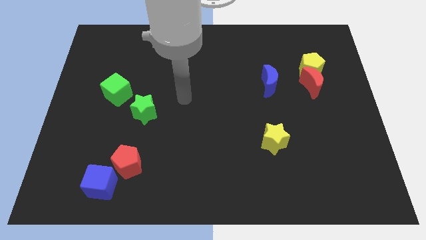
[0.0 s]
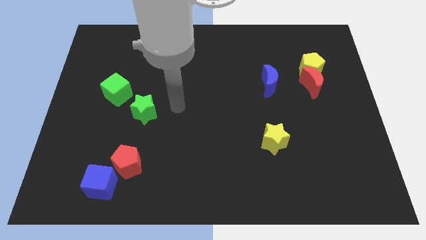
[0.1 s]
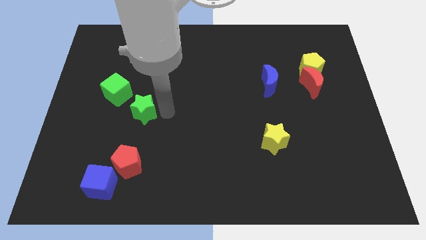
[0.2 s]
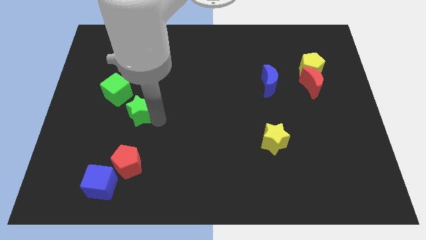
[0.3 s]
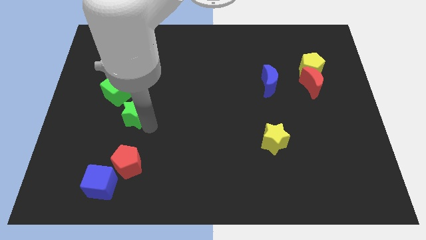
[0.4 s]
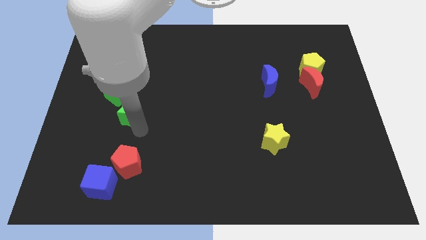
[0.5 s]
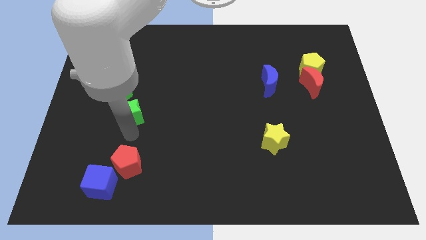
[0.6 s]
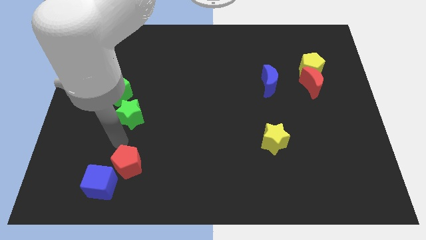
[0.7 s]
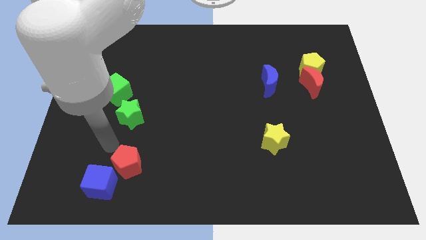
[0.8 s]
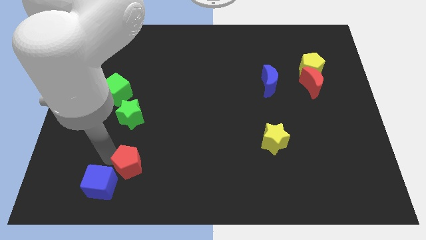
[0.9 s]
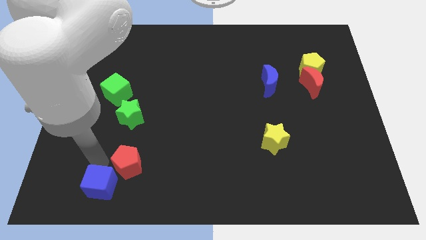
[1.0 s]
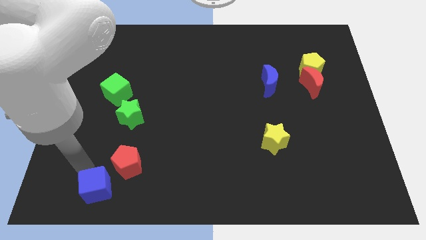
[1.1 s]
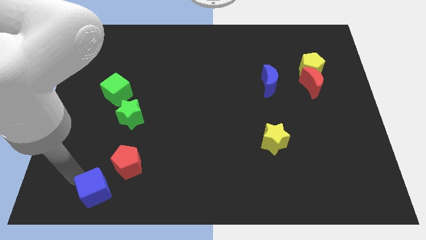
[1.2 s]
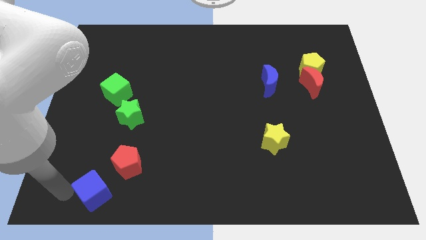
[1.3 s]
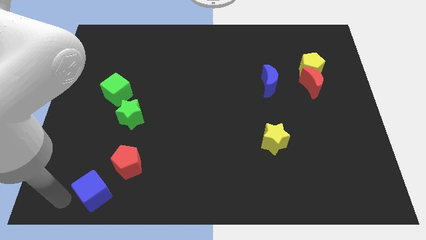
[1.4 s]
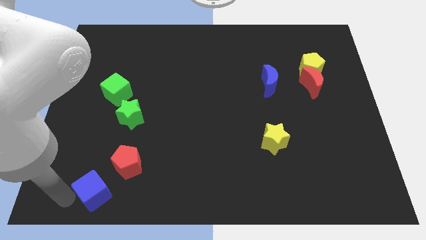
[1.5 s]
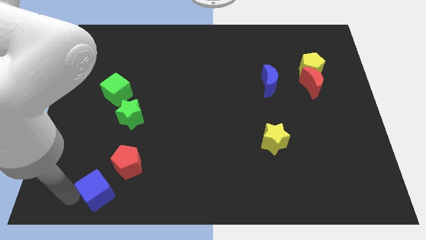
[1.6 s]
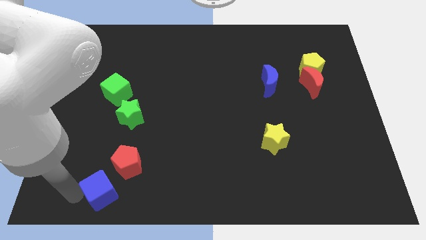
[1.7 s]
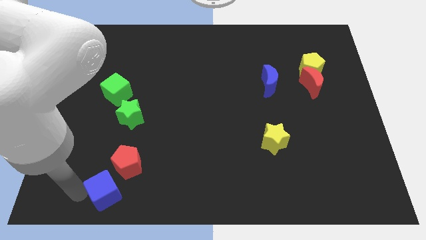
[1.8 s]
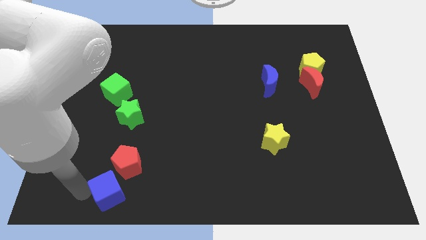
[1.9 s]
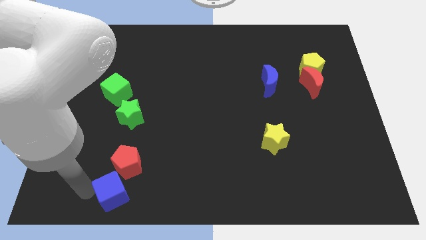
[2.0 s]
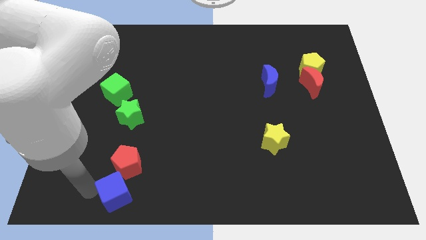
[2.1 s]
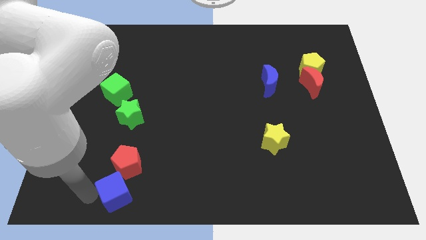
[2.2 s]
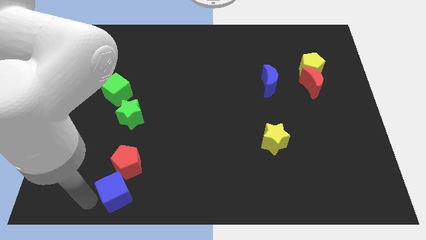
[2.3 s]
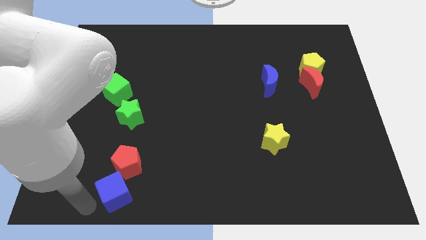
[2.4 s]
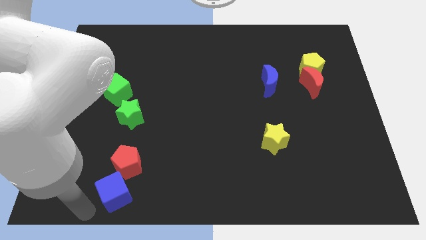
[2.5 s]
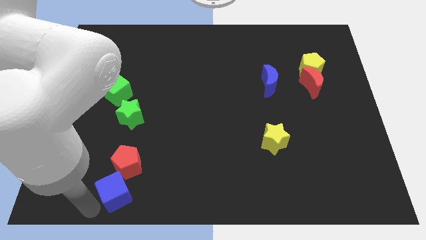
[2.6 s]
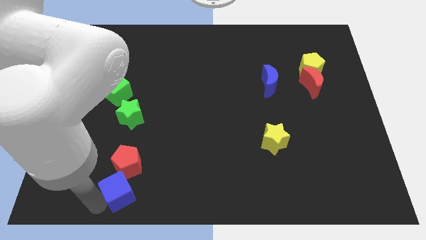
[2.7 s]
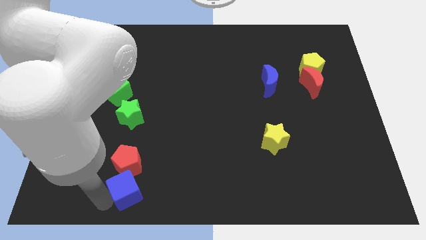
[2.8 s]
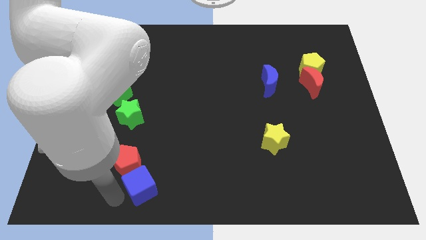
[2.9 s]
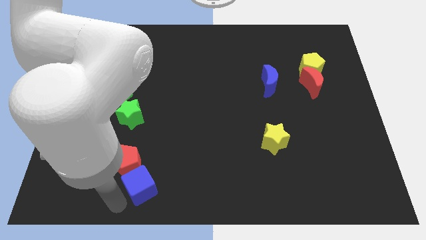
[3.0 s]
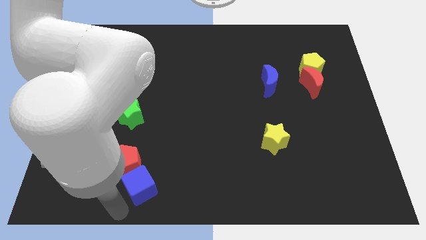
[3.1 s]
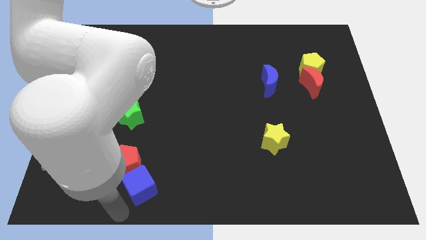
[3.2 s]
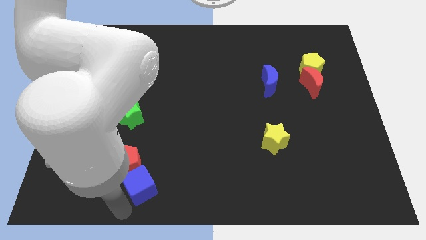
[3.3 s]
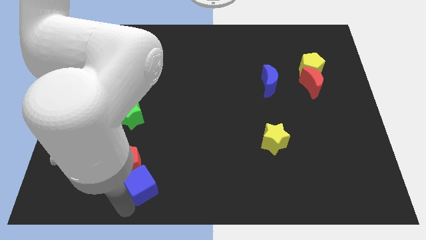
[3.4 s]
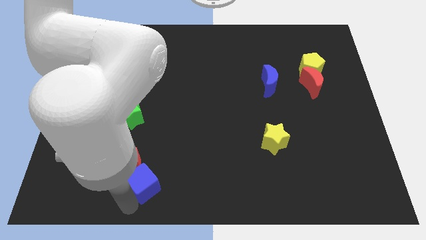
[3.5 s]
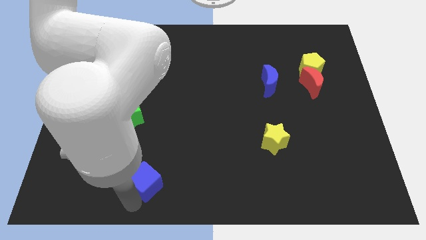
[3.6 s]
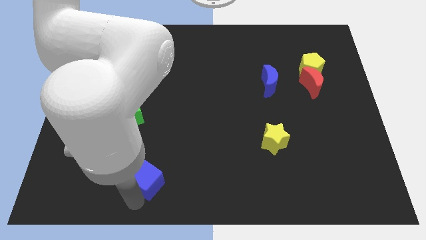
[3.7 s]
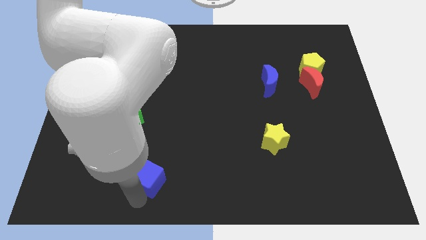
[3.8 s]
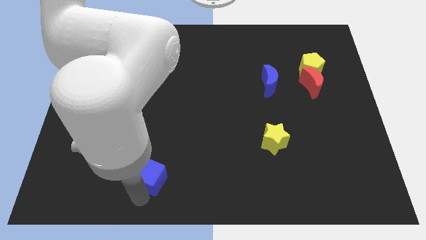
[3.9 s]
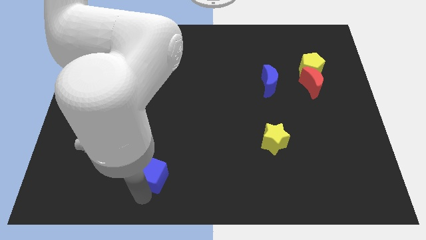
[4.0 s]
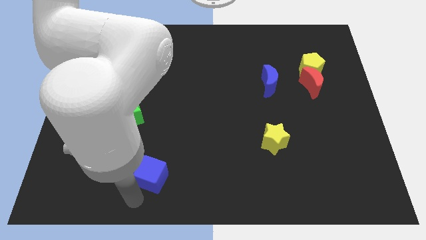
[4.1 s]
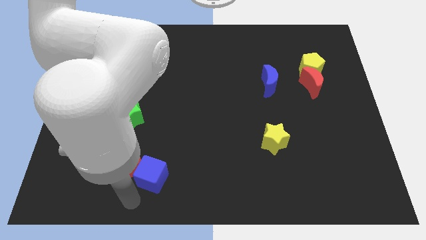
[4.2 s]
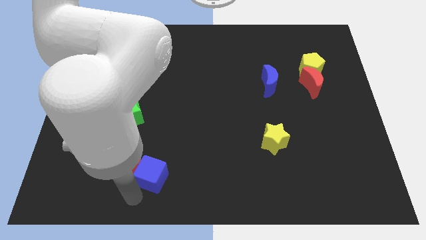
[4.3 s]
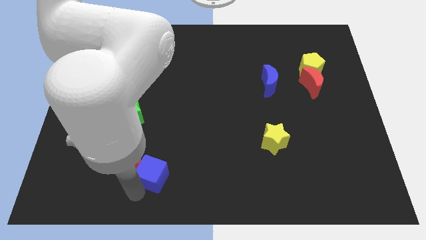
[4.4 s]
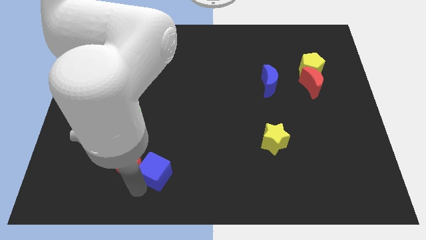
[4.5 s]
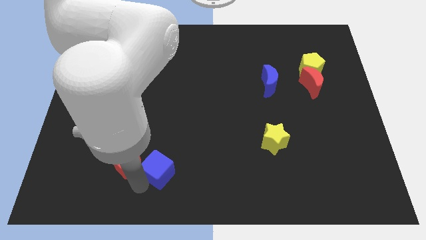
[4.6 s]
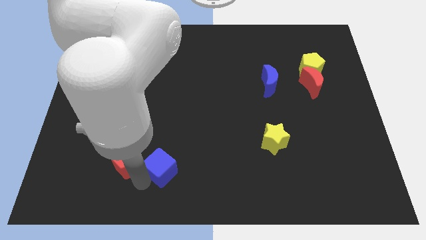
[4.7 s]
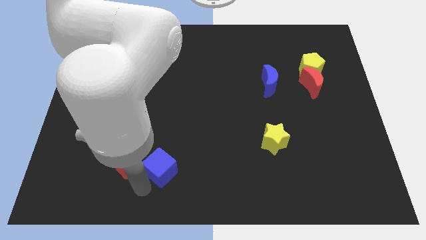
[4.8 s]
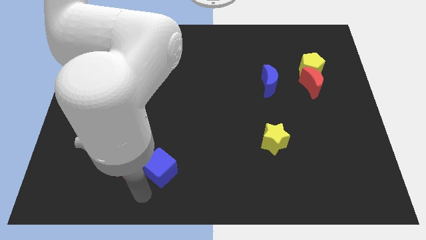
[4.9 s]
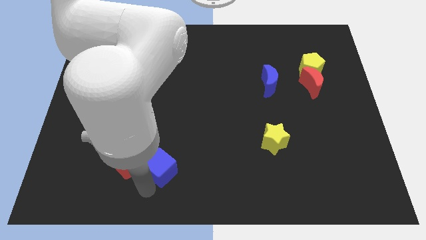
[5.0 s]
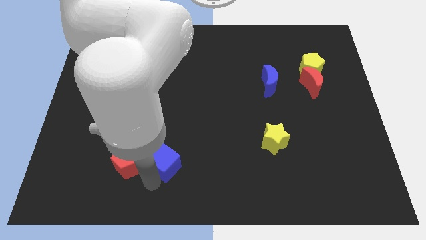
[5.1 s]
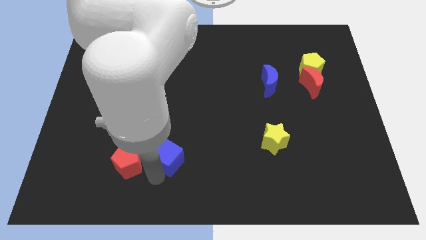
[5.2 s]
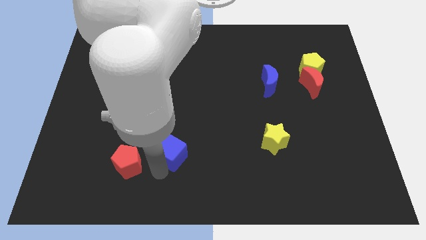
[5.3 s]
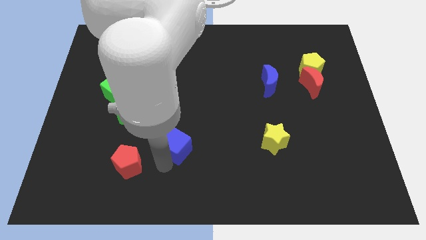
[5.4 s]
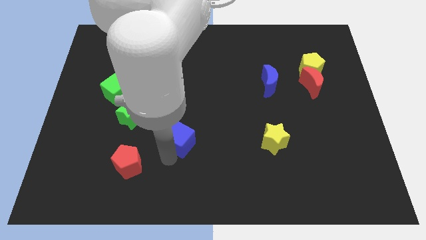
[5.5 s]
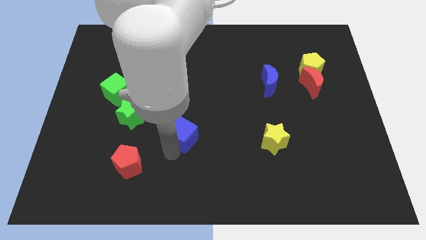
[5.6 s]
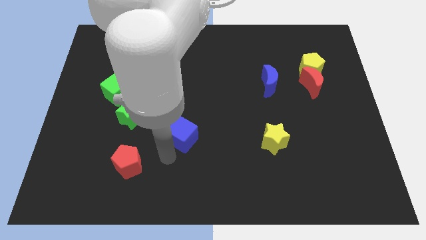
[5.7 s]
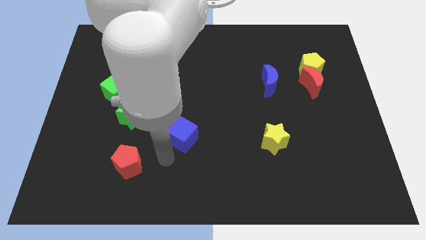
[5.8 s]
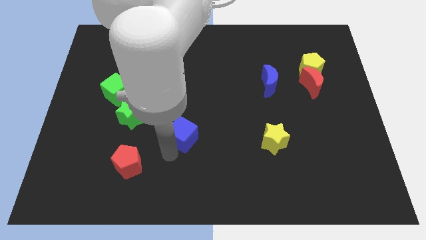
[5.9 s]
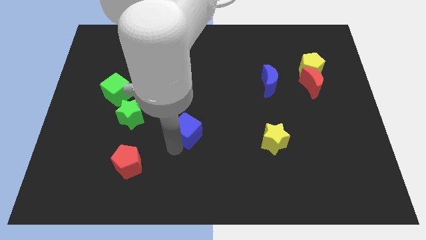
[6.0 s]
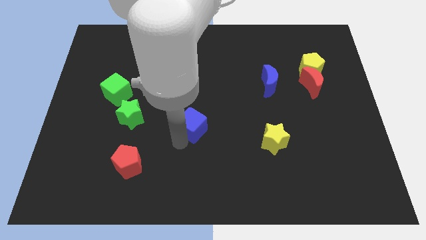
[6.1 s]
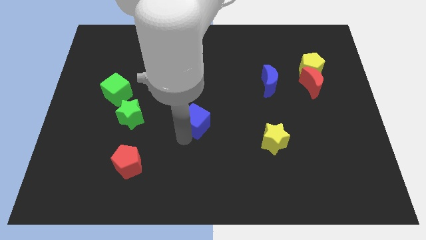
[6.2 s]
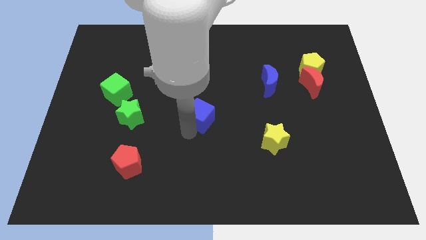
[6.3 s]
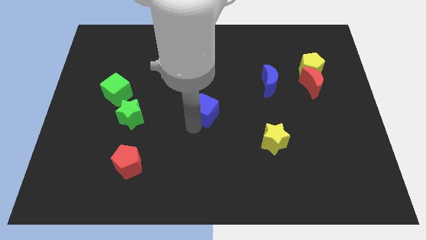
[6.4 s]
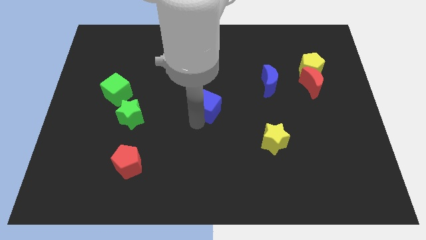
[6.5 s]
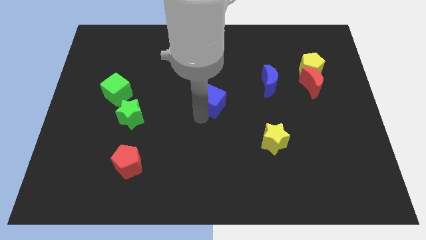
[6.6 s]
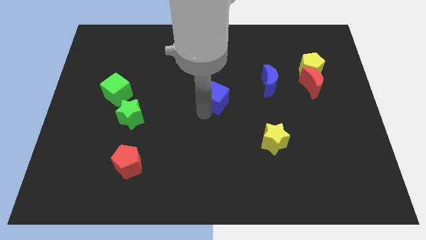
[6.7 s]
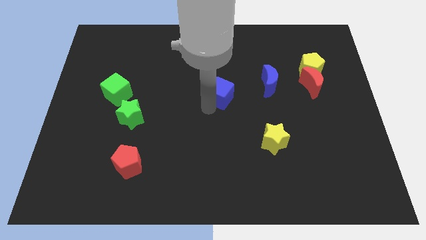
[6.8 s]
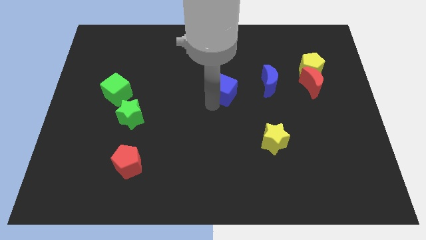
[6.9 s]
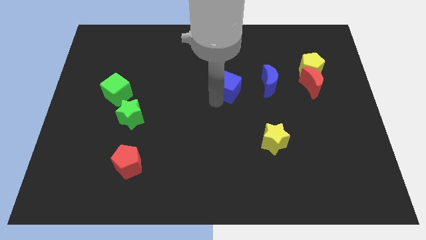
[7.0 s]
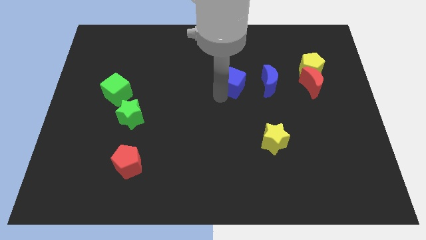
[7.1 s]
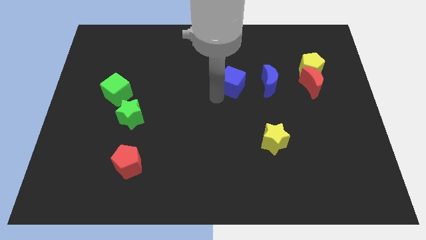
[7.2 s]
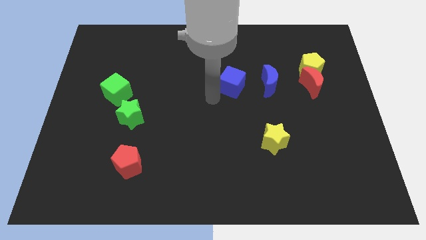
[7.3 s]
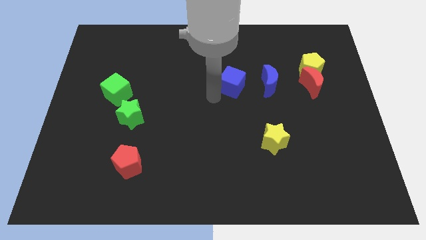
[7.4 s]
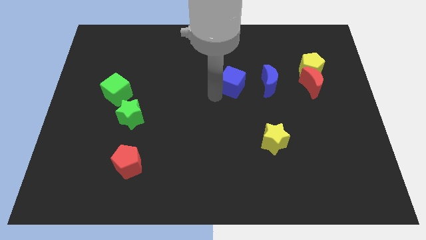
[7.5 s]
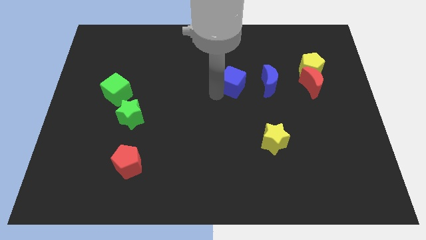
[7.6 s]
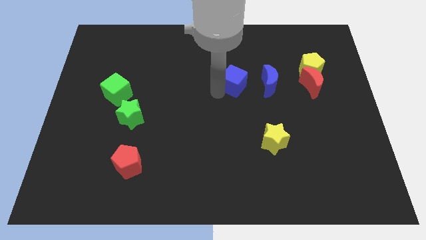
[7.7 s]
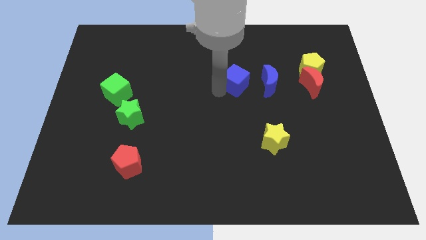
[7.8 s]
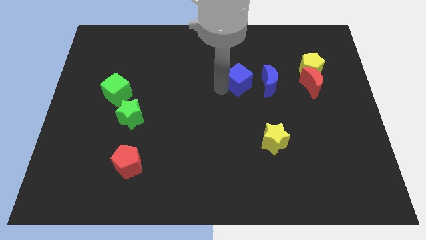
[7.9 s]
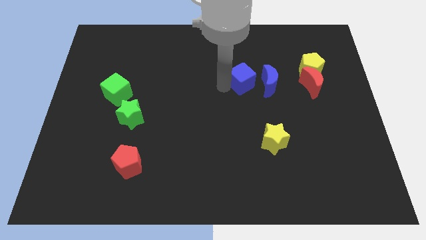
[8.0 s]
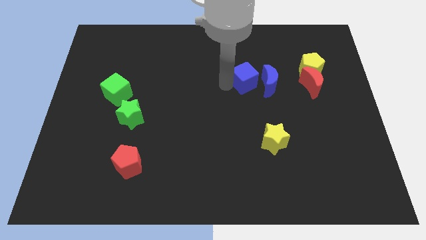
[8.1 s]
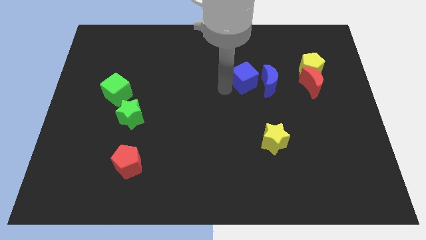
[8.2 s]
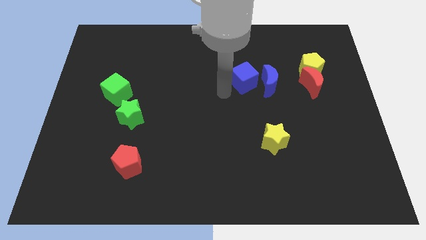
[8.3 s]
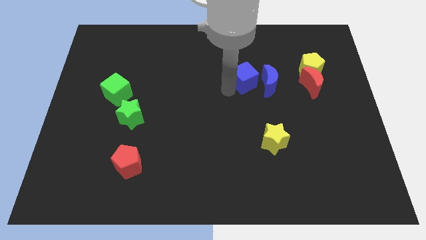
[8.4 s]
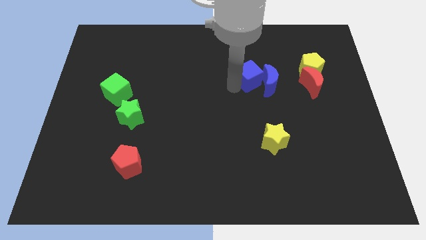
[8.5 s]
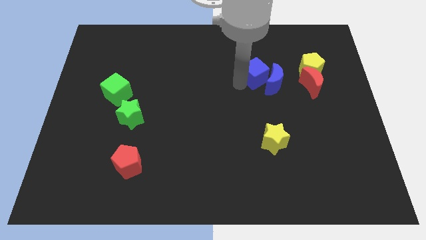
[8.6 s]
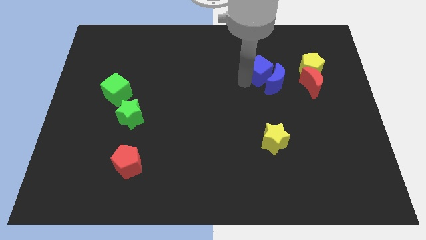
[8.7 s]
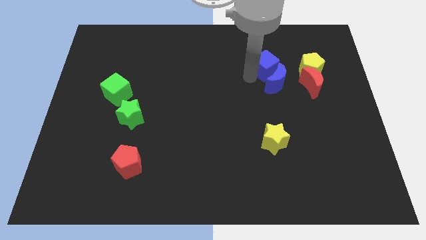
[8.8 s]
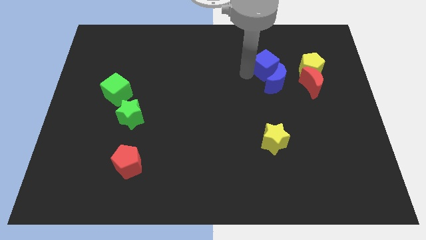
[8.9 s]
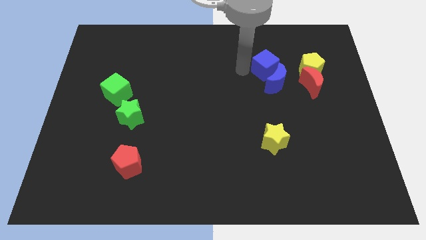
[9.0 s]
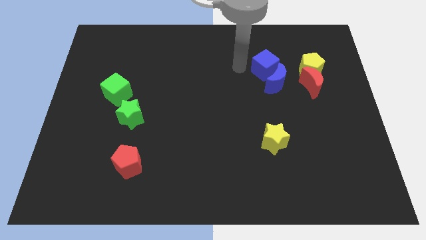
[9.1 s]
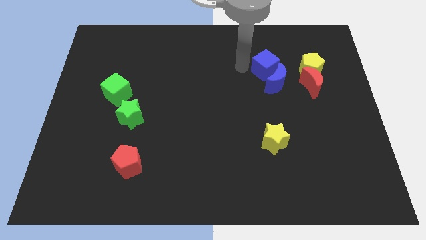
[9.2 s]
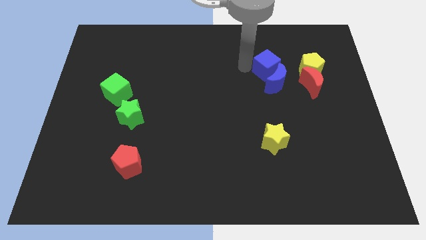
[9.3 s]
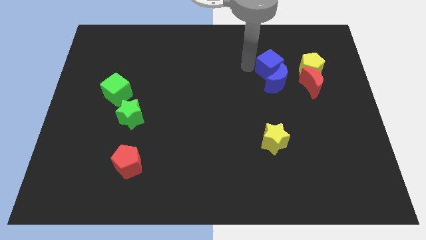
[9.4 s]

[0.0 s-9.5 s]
push the blue cube to the top left of the red moon
